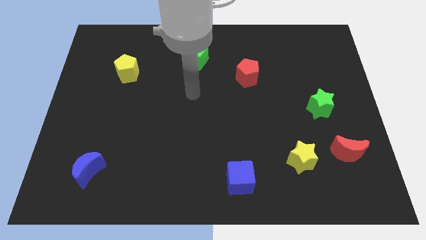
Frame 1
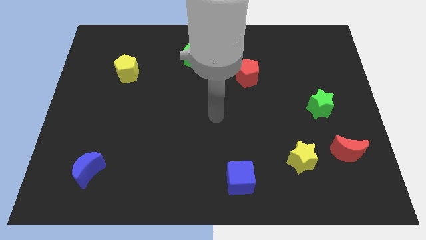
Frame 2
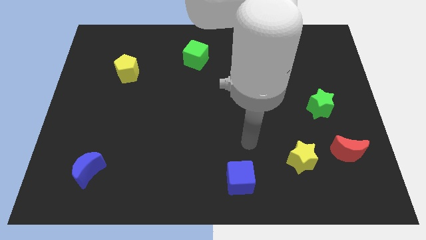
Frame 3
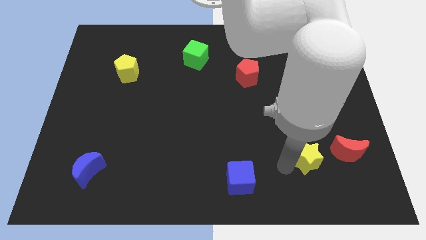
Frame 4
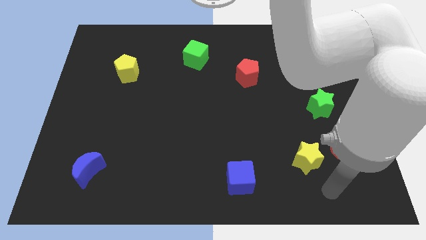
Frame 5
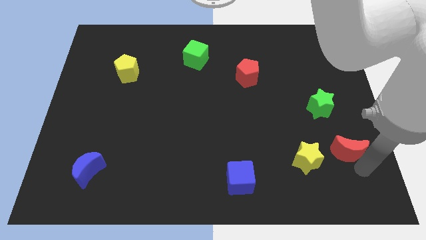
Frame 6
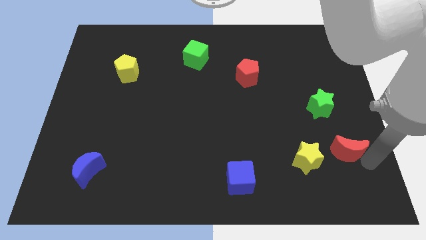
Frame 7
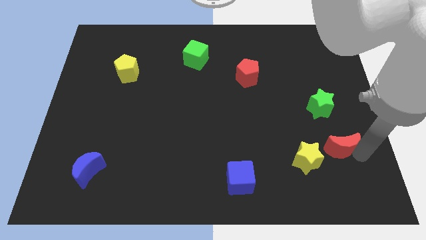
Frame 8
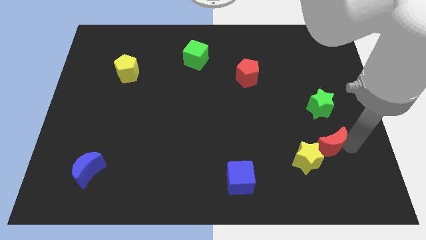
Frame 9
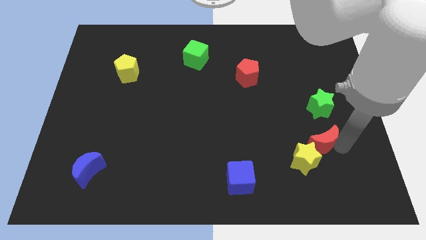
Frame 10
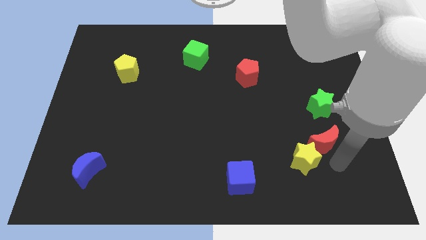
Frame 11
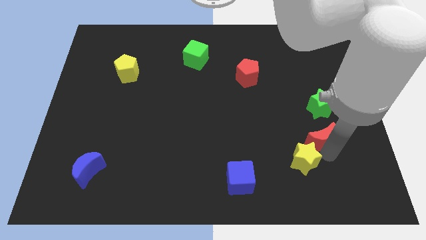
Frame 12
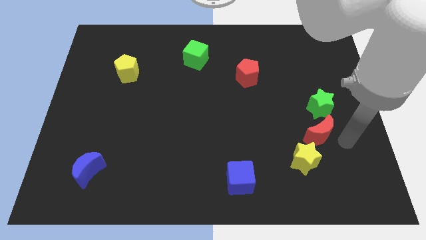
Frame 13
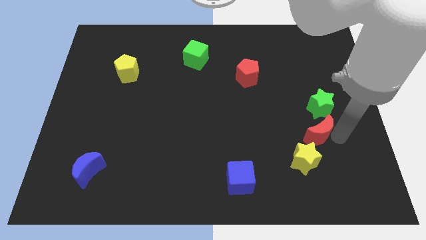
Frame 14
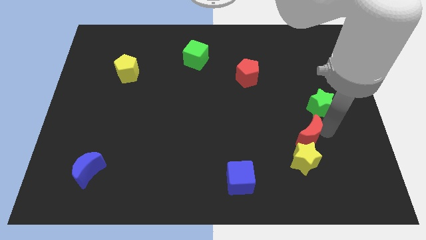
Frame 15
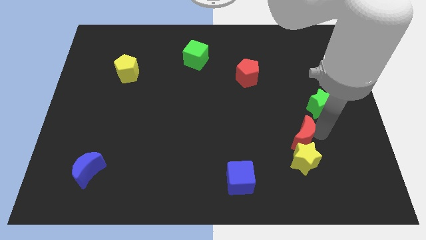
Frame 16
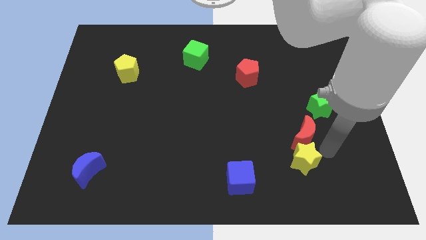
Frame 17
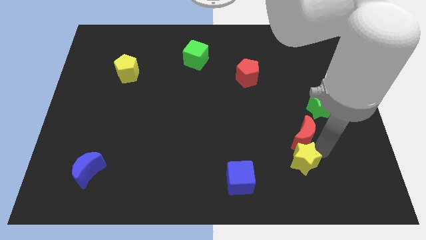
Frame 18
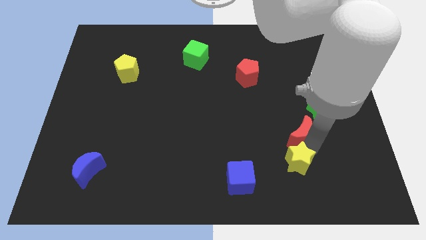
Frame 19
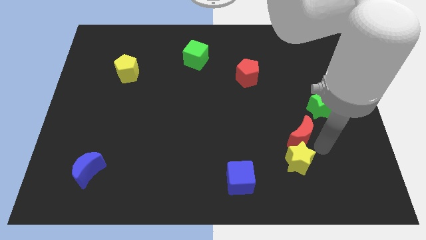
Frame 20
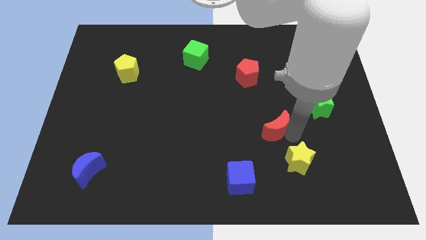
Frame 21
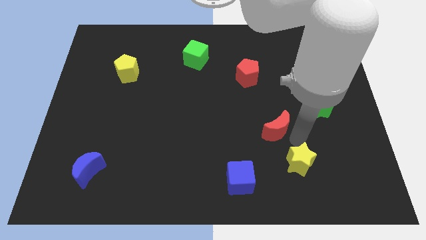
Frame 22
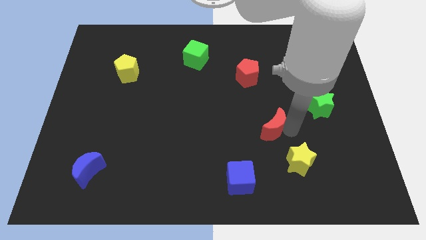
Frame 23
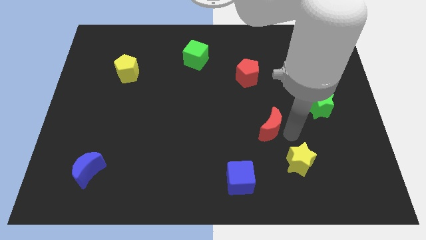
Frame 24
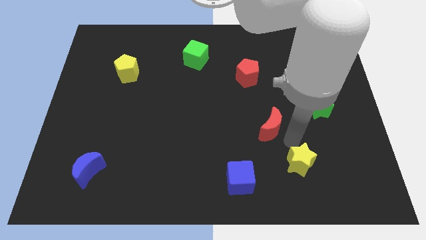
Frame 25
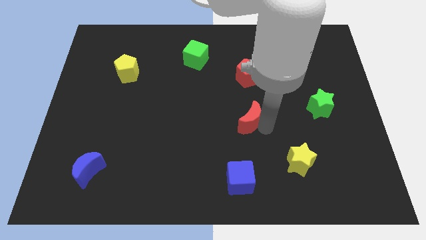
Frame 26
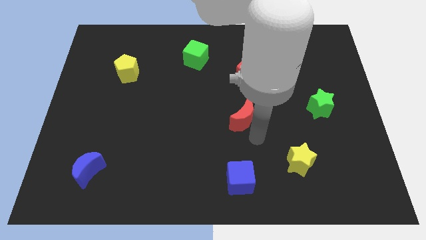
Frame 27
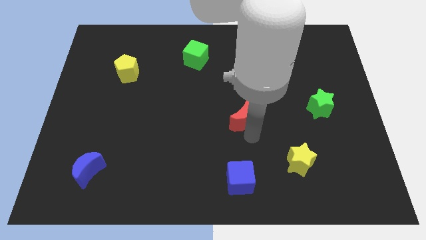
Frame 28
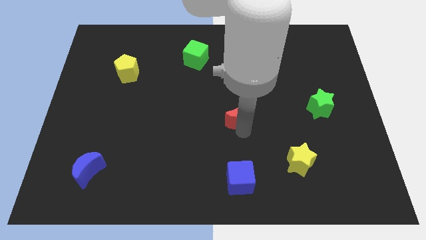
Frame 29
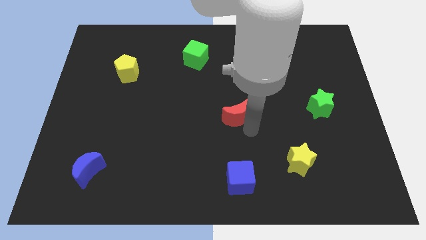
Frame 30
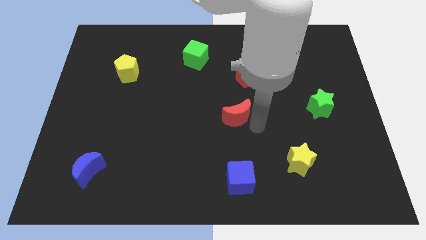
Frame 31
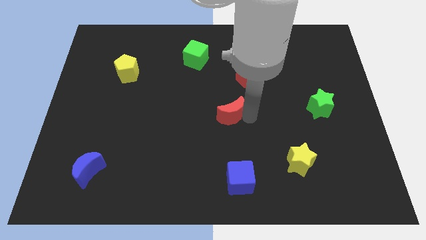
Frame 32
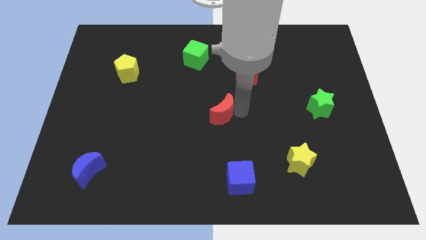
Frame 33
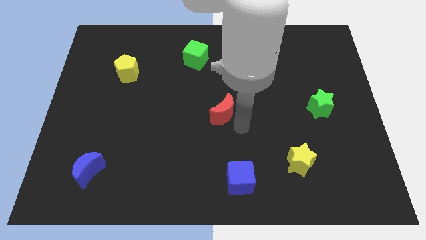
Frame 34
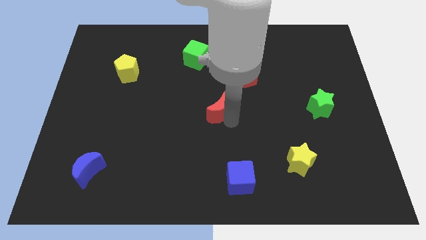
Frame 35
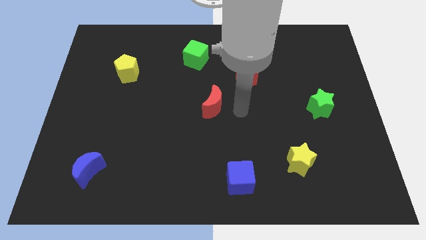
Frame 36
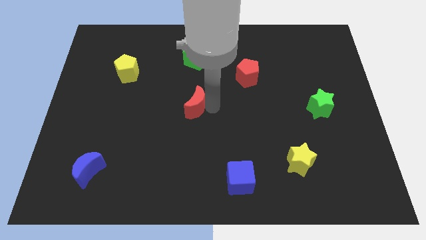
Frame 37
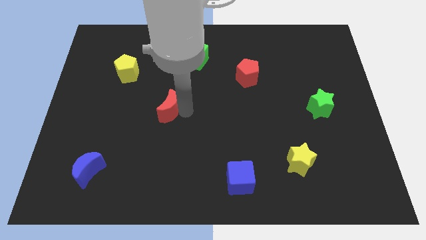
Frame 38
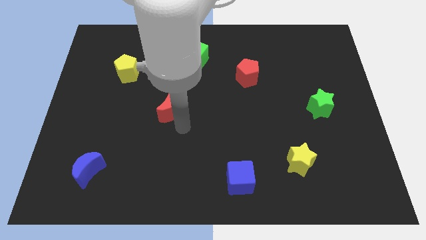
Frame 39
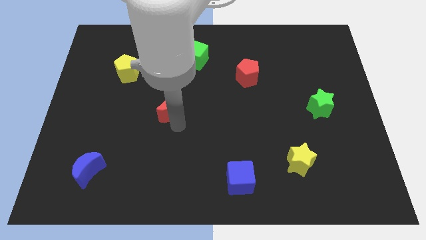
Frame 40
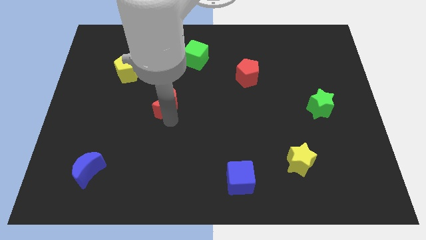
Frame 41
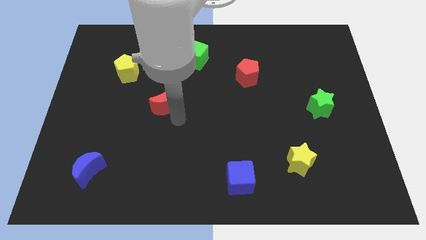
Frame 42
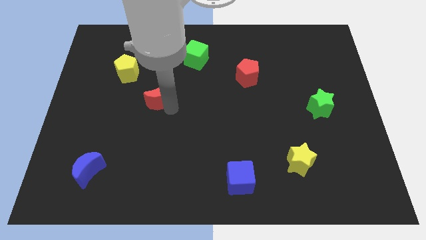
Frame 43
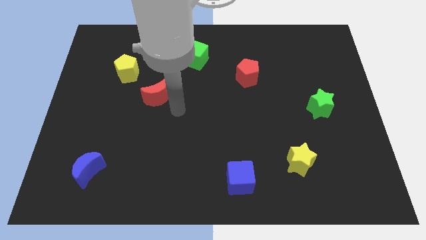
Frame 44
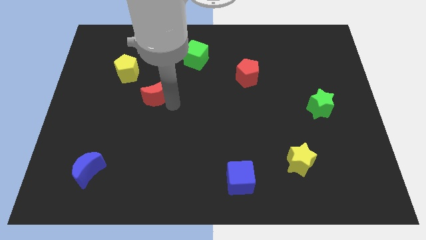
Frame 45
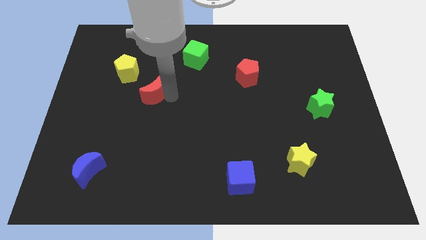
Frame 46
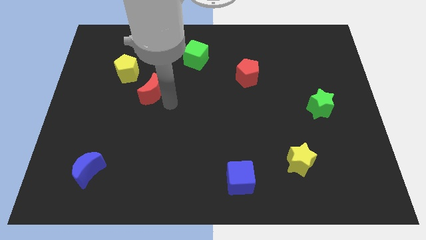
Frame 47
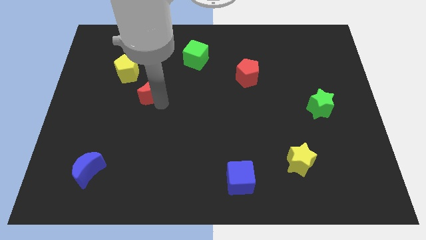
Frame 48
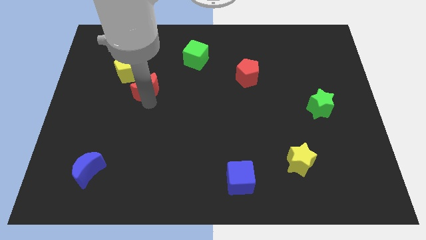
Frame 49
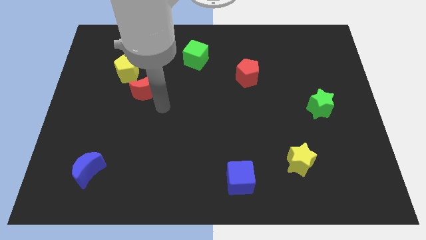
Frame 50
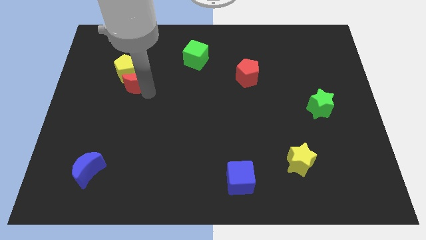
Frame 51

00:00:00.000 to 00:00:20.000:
move the red moon towards the yellow pentagon

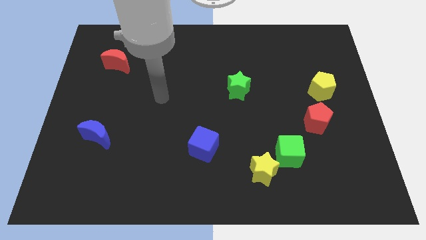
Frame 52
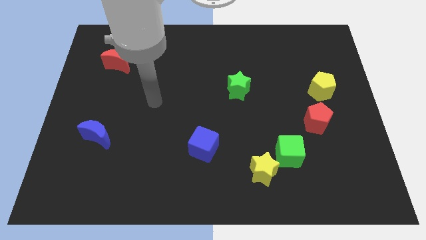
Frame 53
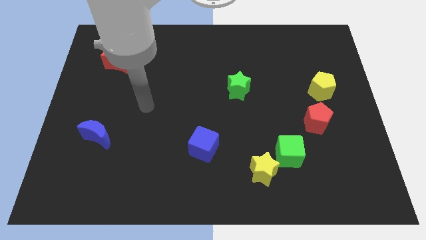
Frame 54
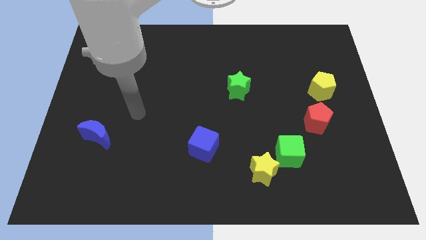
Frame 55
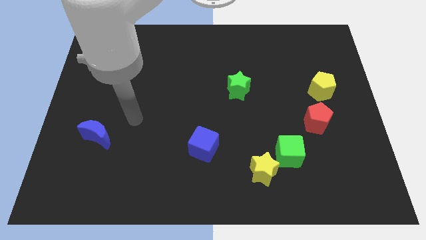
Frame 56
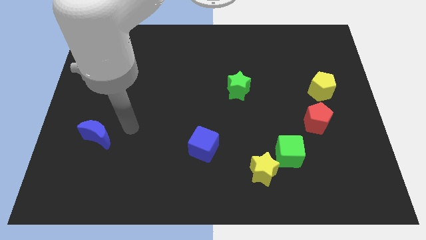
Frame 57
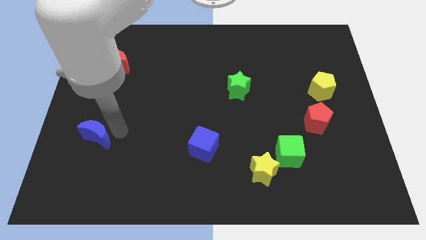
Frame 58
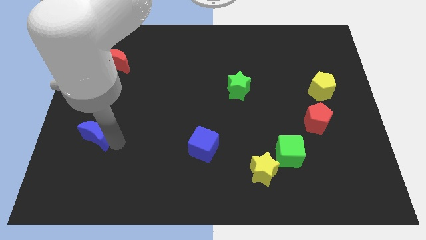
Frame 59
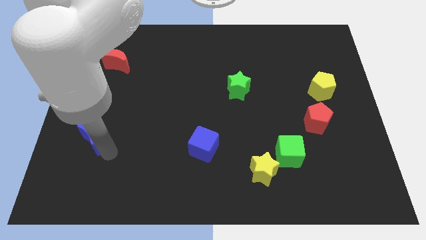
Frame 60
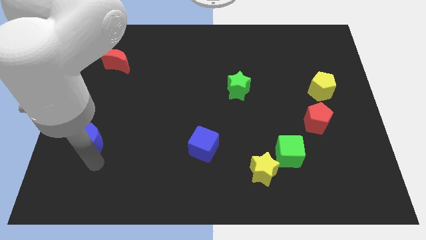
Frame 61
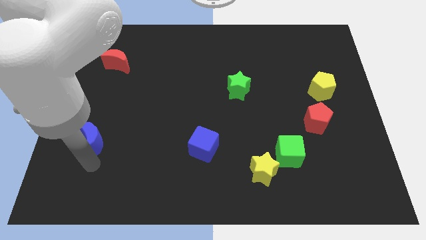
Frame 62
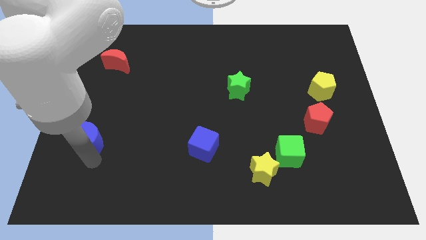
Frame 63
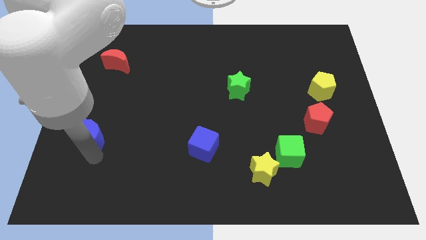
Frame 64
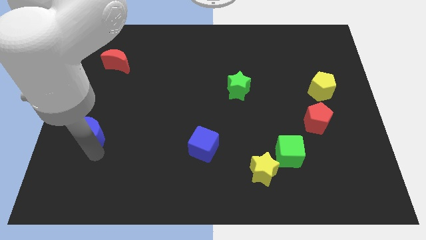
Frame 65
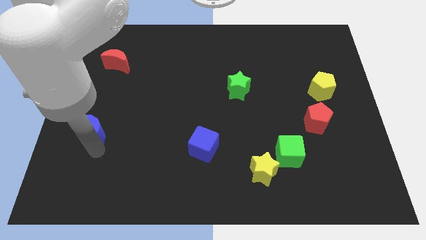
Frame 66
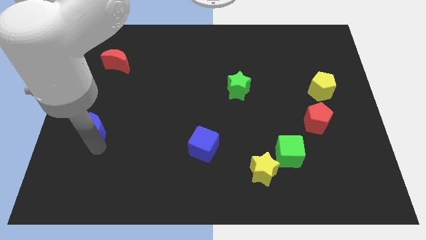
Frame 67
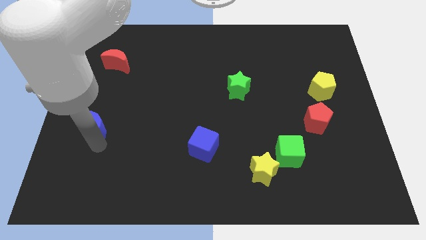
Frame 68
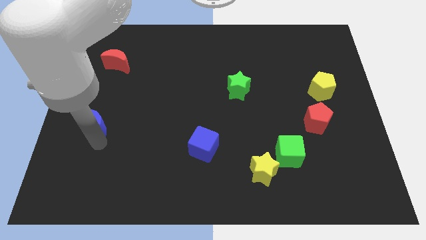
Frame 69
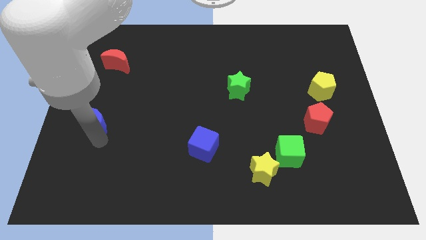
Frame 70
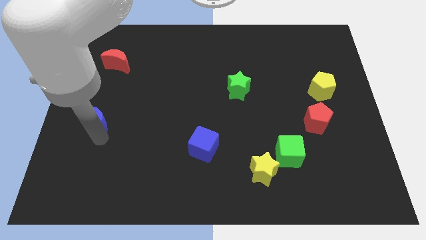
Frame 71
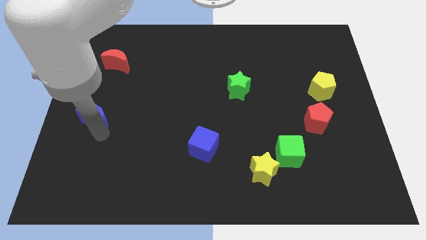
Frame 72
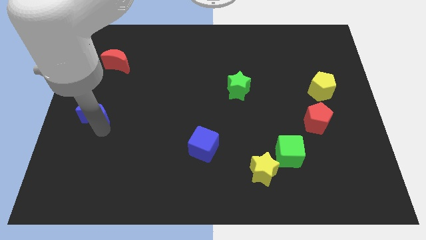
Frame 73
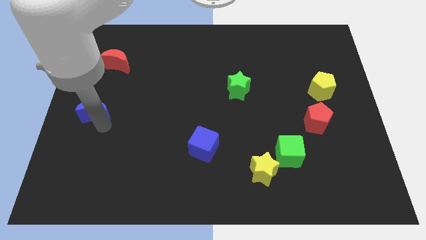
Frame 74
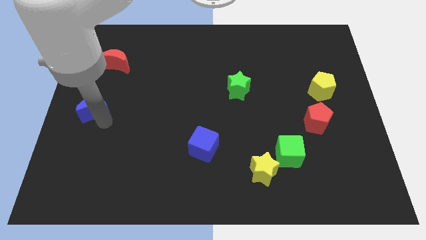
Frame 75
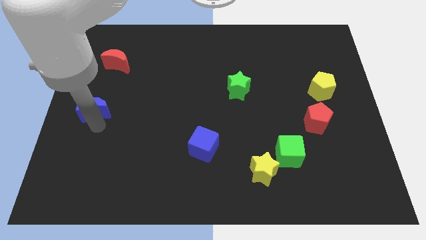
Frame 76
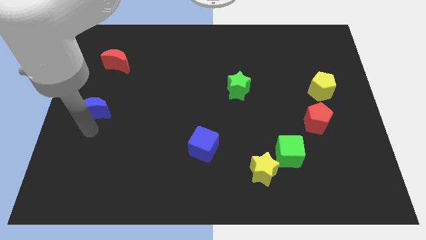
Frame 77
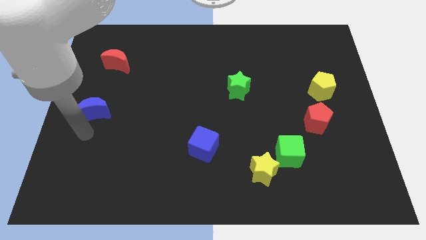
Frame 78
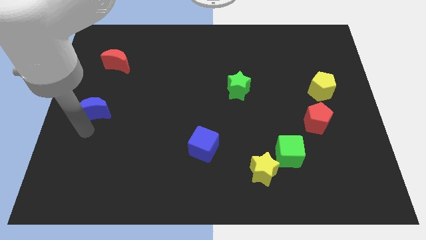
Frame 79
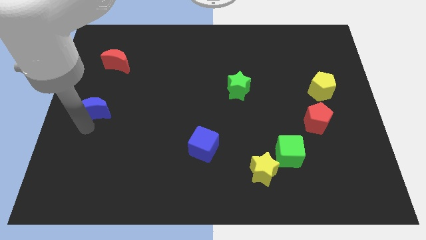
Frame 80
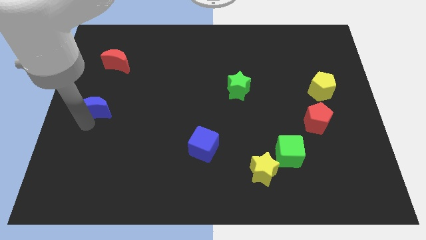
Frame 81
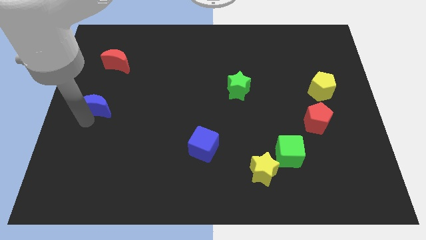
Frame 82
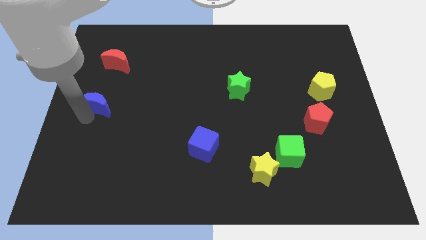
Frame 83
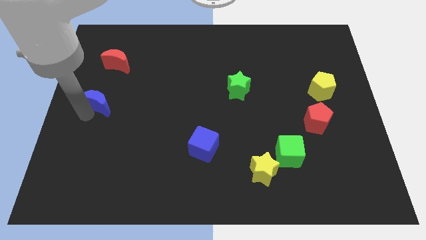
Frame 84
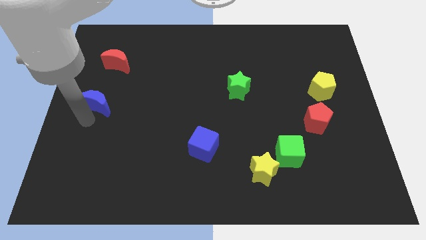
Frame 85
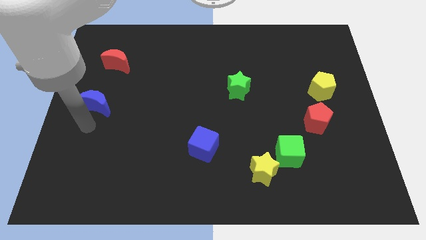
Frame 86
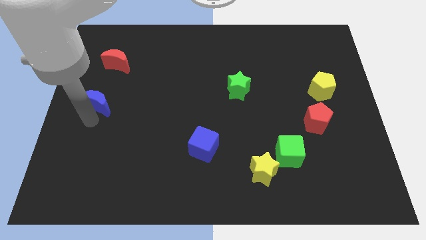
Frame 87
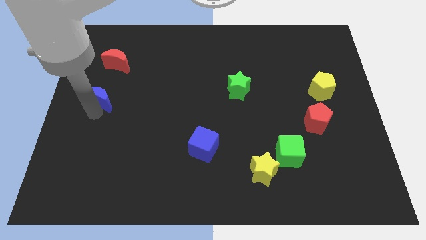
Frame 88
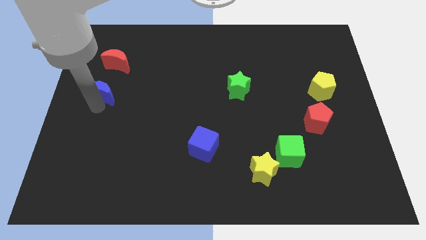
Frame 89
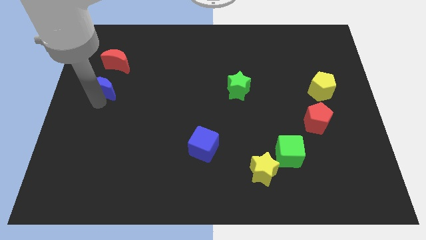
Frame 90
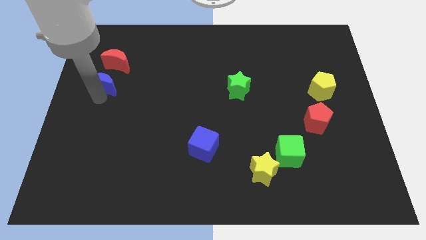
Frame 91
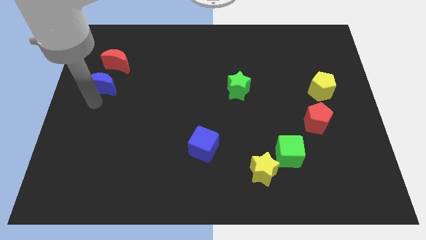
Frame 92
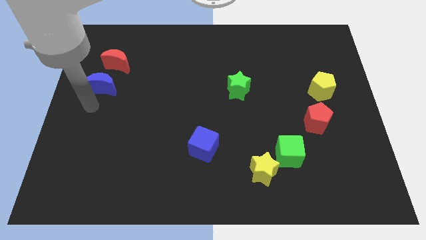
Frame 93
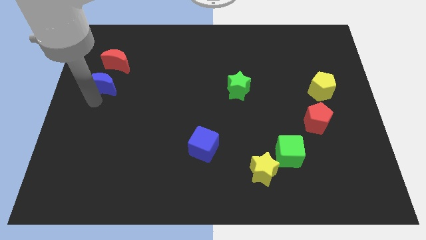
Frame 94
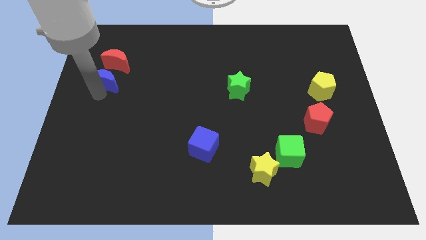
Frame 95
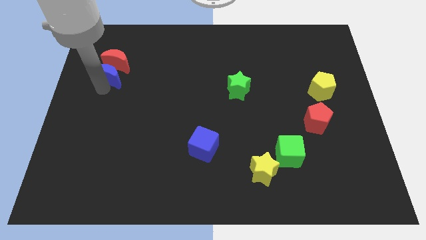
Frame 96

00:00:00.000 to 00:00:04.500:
move the blue moon to the red moon
